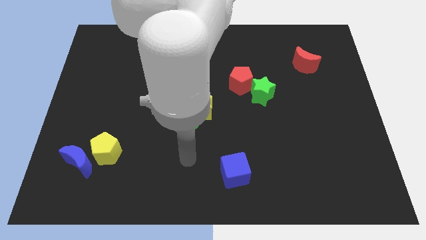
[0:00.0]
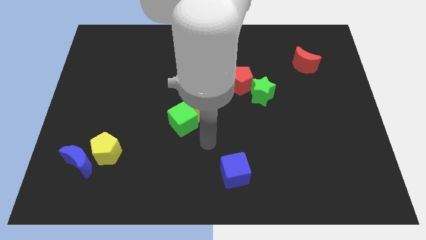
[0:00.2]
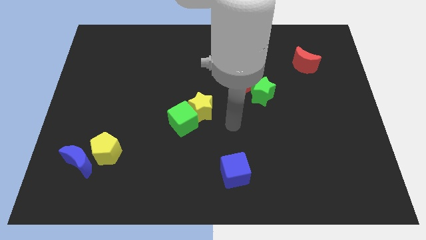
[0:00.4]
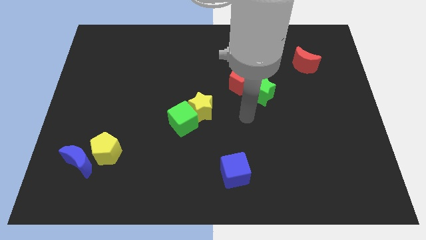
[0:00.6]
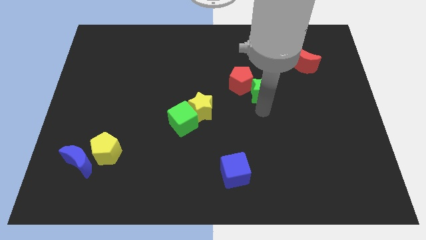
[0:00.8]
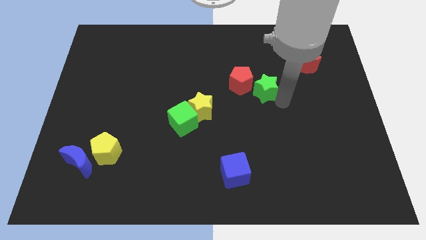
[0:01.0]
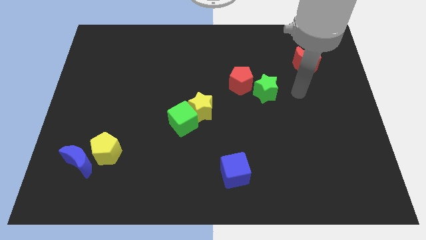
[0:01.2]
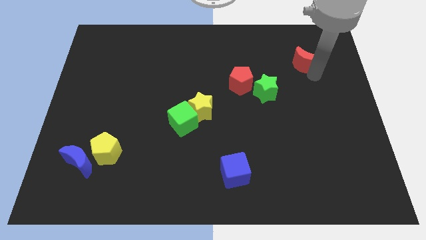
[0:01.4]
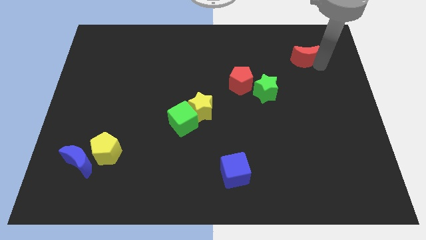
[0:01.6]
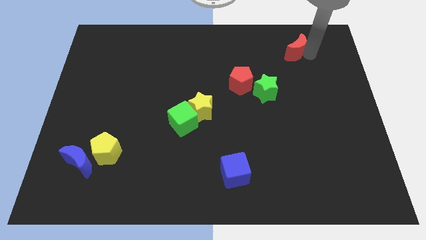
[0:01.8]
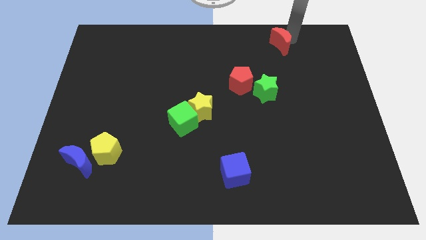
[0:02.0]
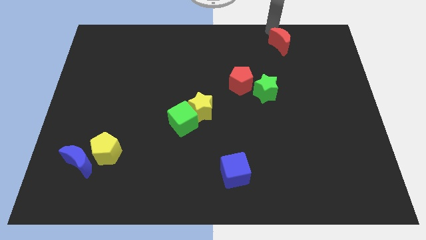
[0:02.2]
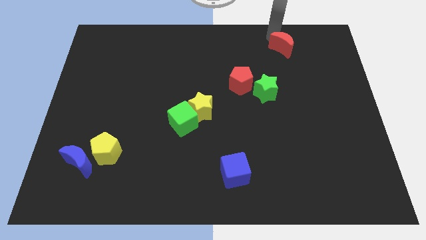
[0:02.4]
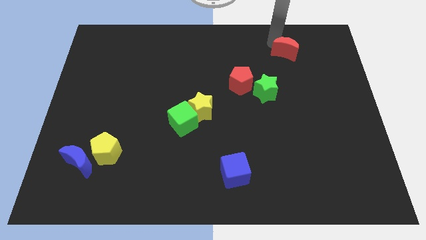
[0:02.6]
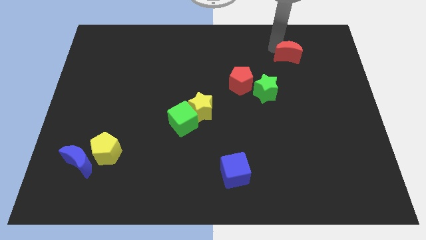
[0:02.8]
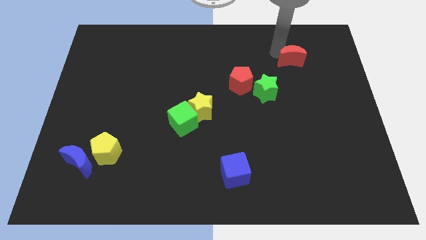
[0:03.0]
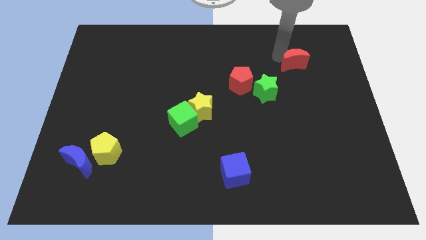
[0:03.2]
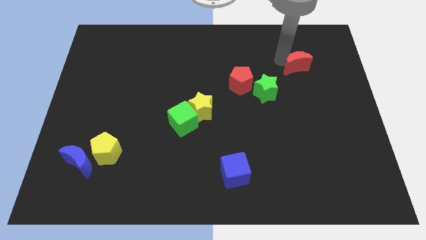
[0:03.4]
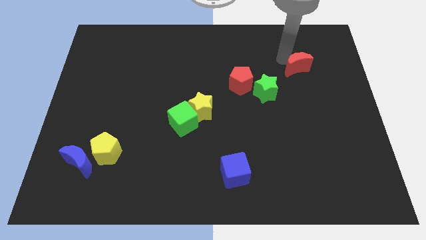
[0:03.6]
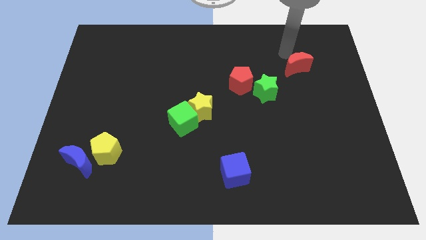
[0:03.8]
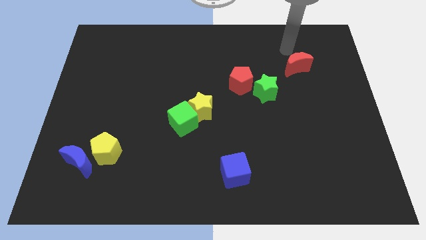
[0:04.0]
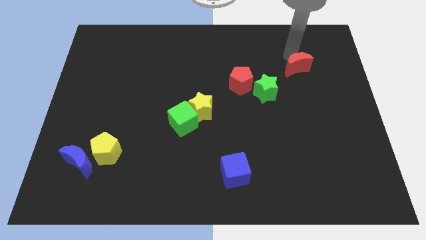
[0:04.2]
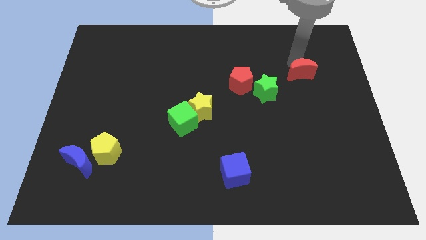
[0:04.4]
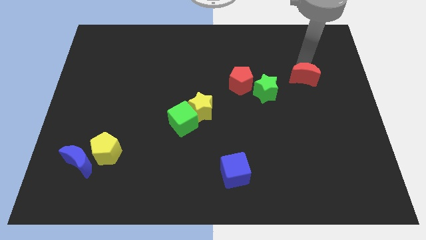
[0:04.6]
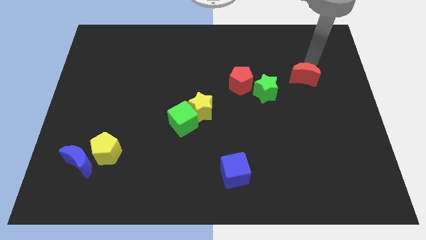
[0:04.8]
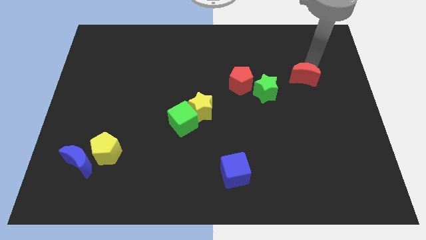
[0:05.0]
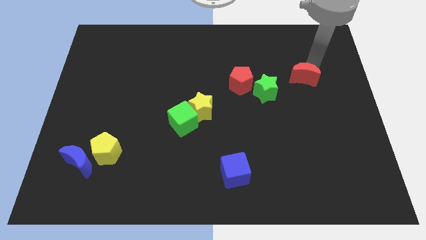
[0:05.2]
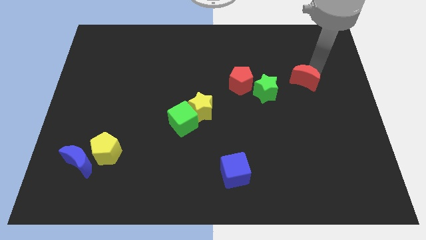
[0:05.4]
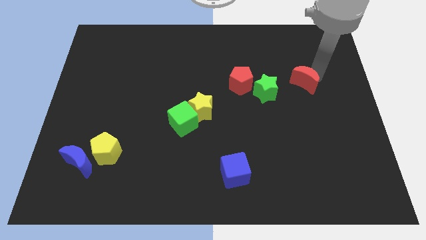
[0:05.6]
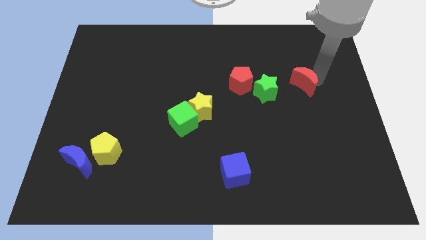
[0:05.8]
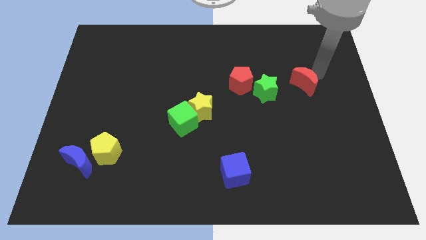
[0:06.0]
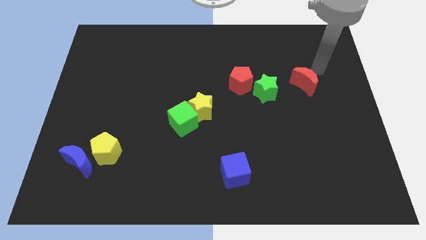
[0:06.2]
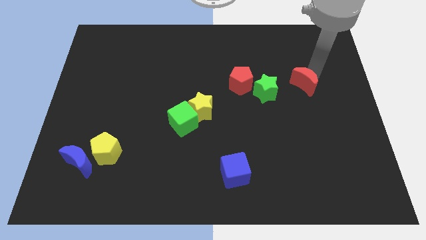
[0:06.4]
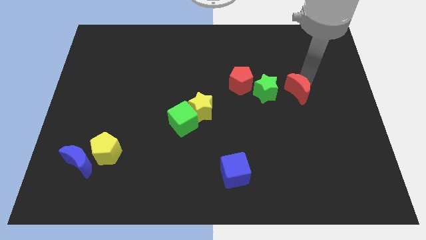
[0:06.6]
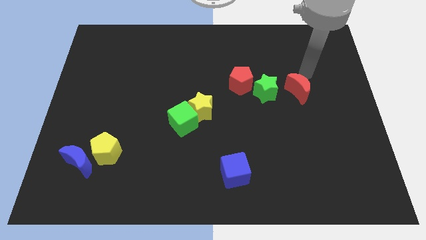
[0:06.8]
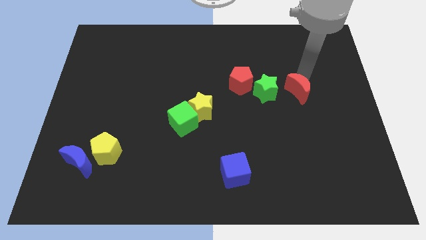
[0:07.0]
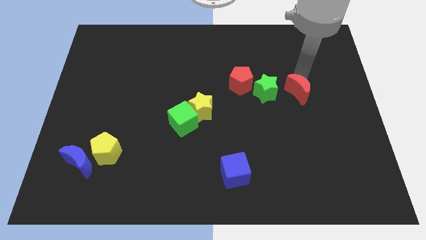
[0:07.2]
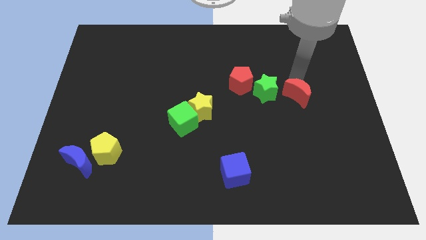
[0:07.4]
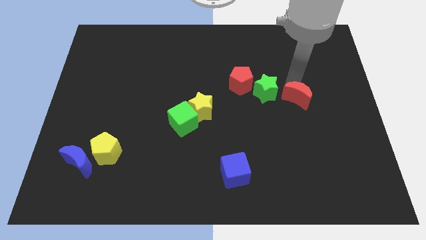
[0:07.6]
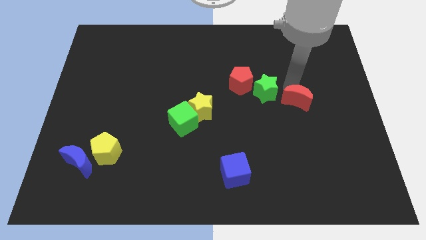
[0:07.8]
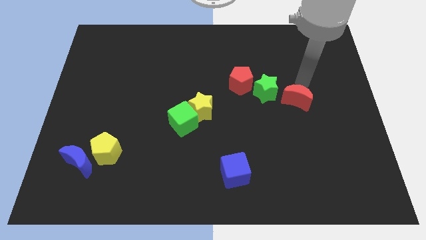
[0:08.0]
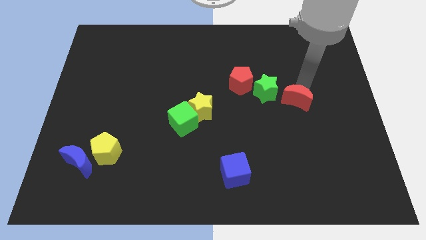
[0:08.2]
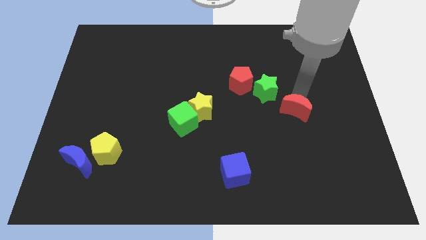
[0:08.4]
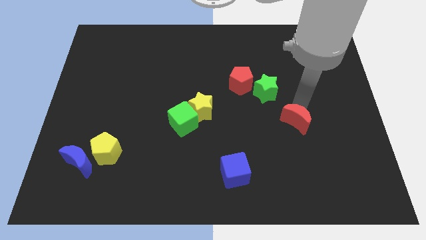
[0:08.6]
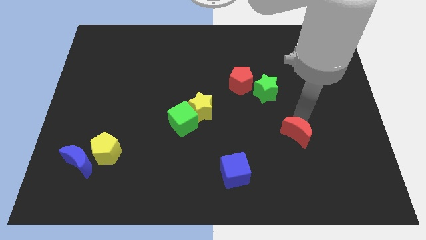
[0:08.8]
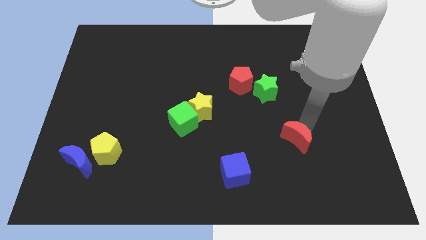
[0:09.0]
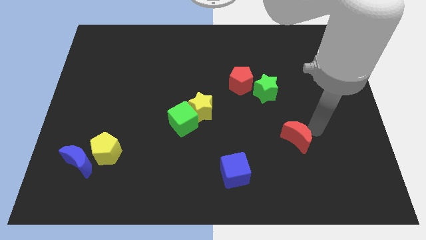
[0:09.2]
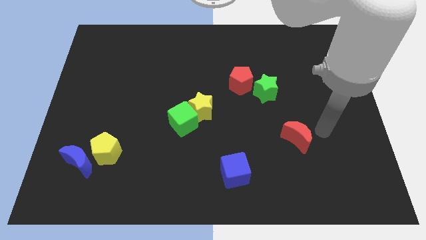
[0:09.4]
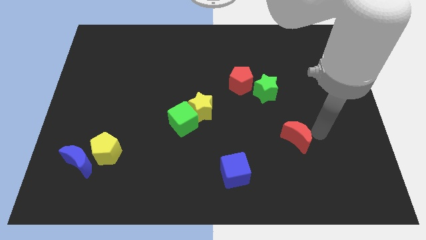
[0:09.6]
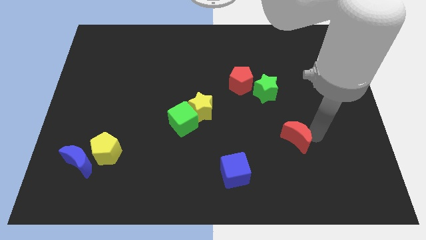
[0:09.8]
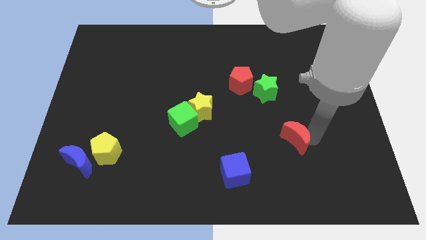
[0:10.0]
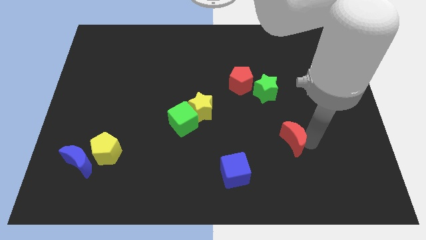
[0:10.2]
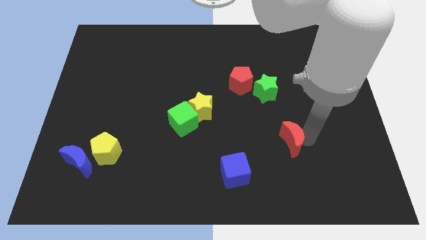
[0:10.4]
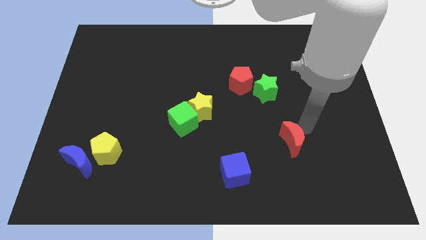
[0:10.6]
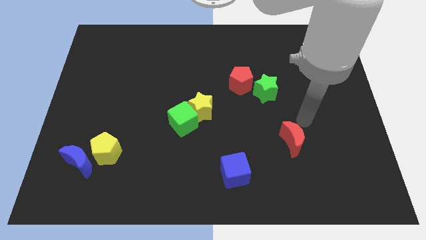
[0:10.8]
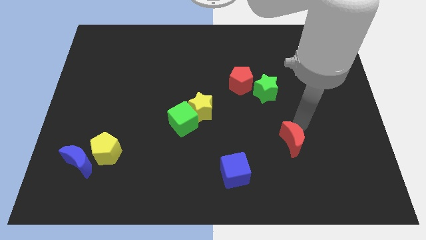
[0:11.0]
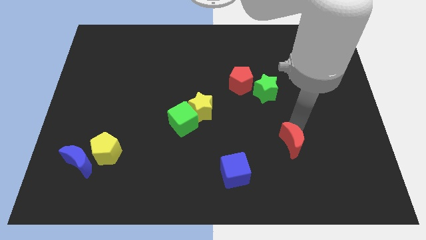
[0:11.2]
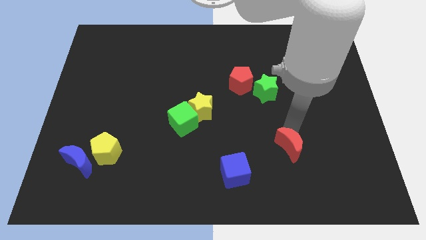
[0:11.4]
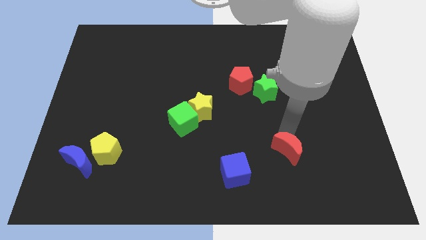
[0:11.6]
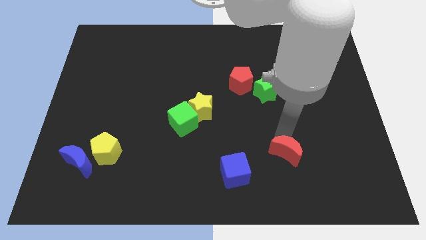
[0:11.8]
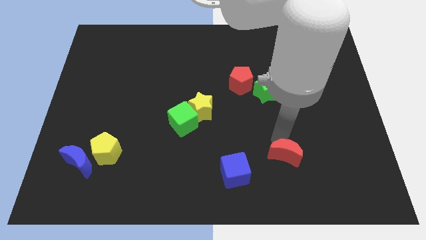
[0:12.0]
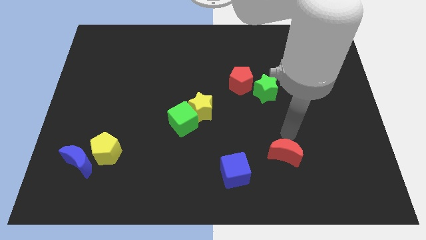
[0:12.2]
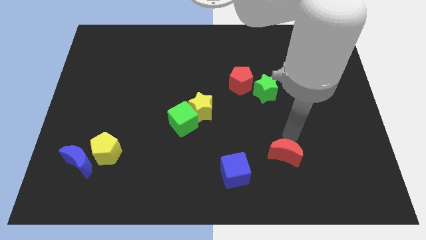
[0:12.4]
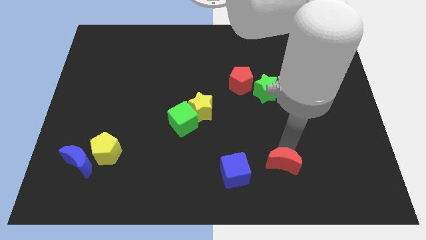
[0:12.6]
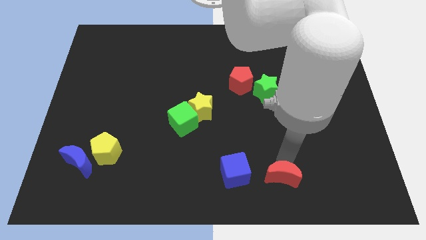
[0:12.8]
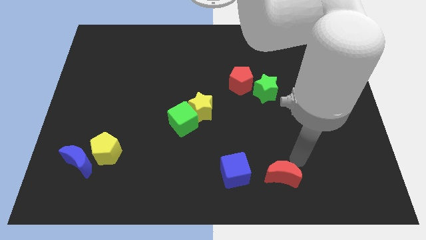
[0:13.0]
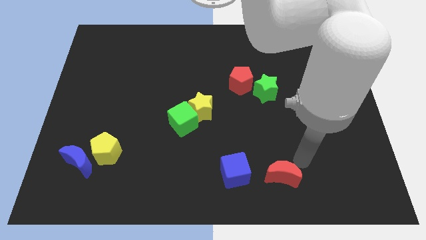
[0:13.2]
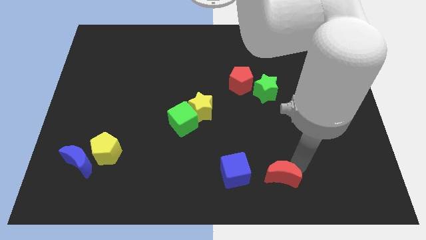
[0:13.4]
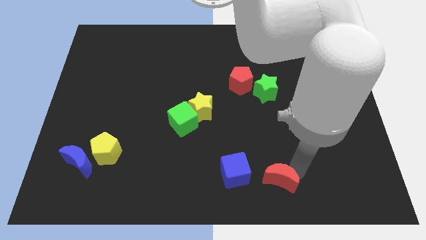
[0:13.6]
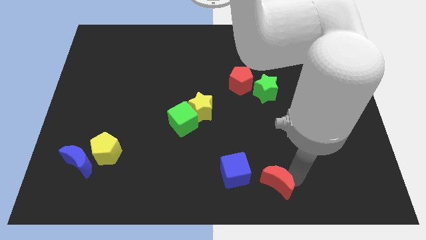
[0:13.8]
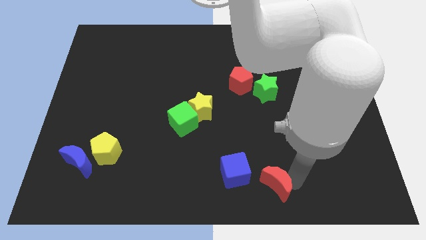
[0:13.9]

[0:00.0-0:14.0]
put the red moon to the bottom
